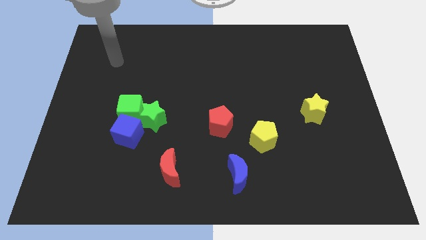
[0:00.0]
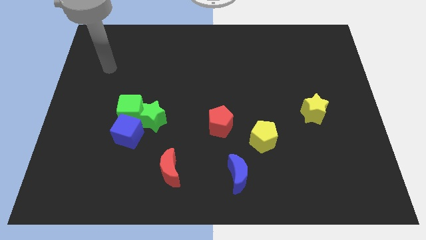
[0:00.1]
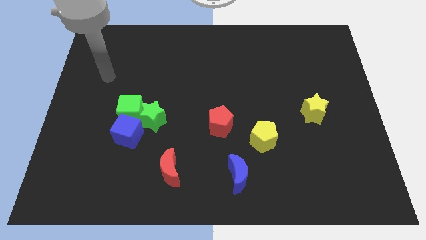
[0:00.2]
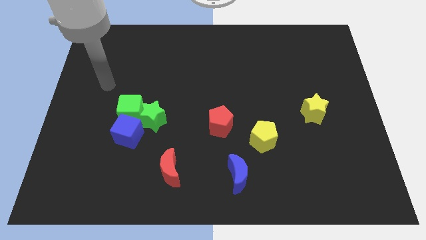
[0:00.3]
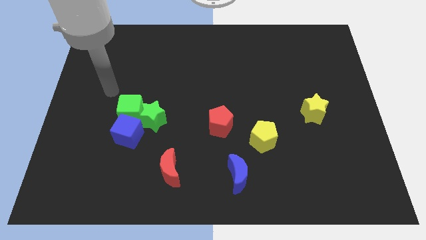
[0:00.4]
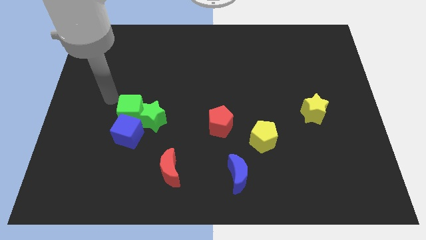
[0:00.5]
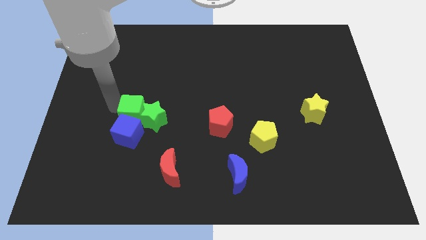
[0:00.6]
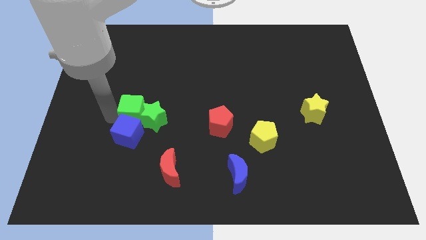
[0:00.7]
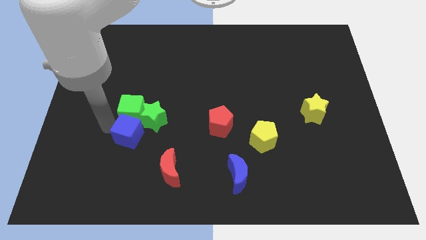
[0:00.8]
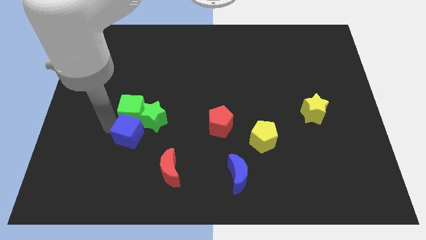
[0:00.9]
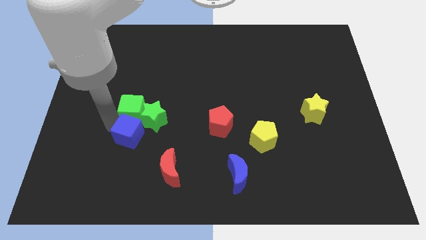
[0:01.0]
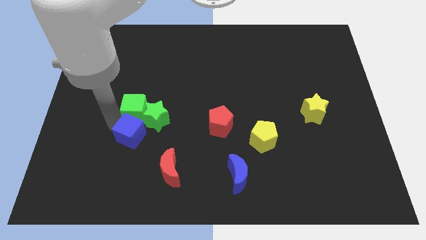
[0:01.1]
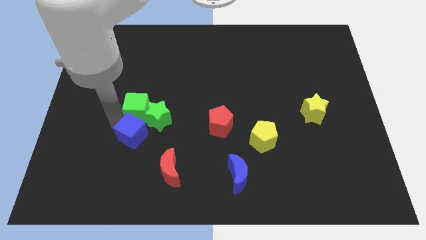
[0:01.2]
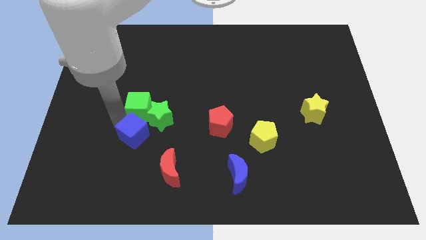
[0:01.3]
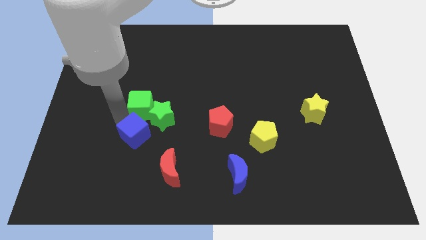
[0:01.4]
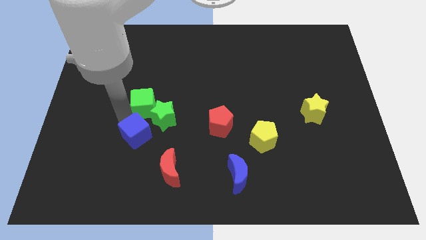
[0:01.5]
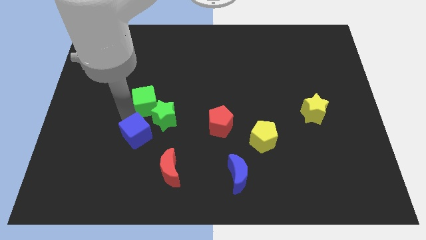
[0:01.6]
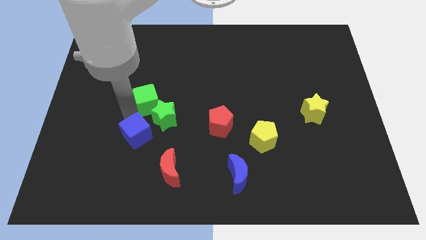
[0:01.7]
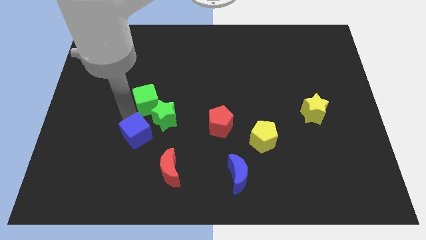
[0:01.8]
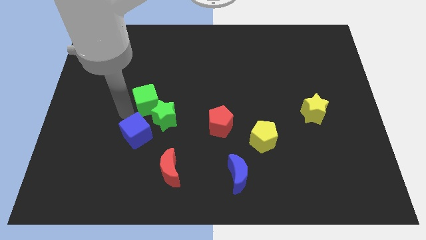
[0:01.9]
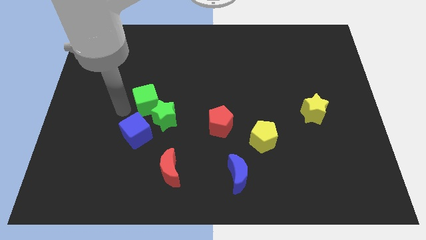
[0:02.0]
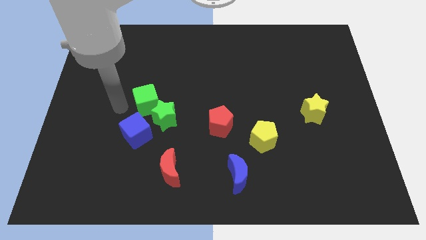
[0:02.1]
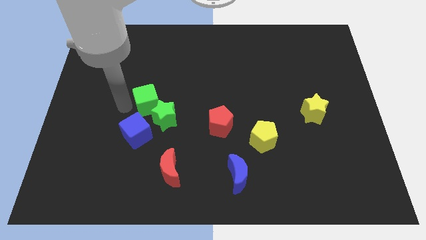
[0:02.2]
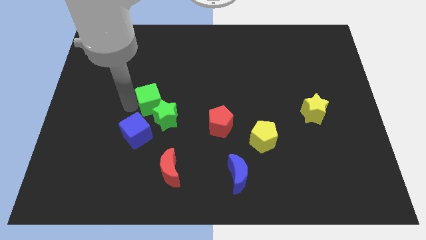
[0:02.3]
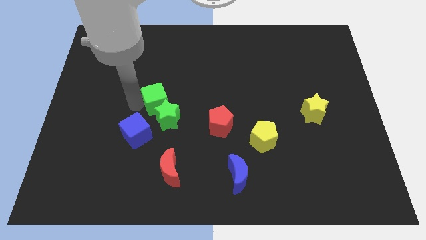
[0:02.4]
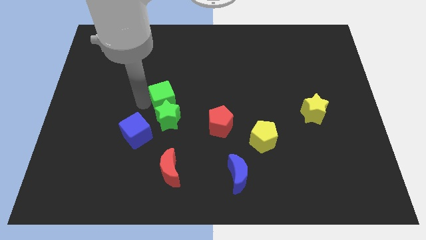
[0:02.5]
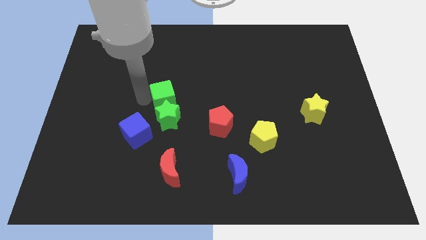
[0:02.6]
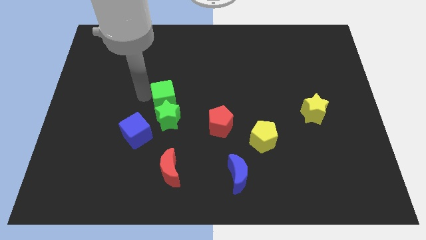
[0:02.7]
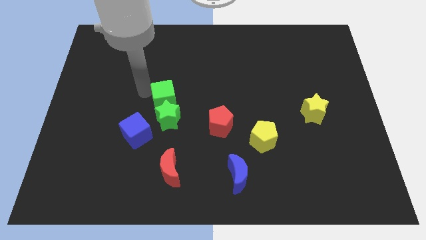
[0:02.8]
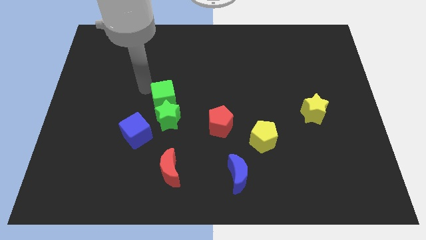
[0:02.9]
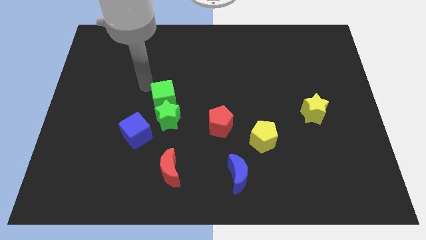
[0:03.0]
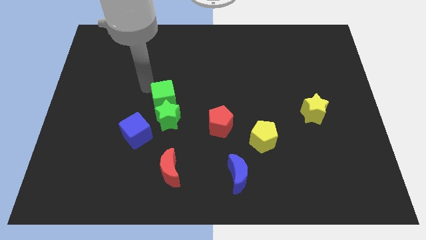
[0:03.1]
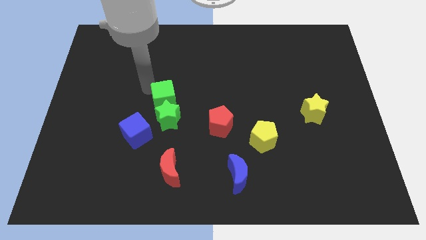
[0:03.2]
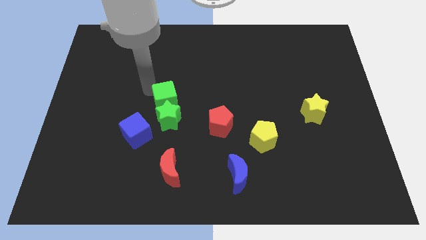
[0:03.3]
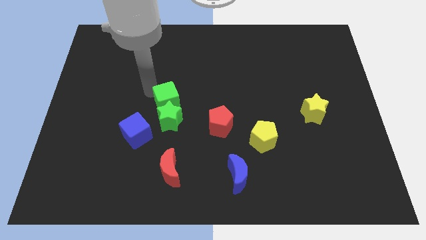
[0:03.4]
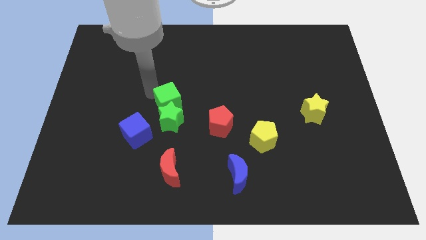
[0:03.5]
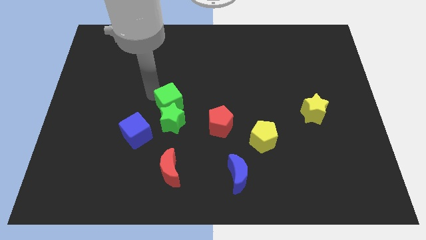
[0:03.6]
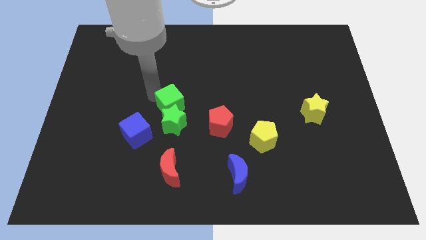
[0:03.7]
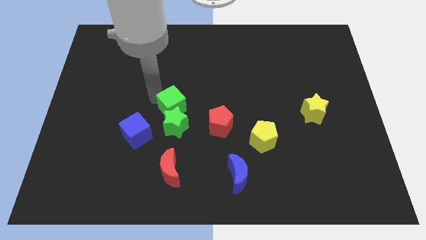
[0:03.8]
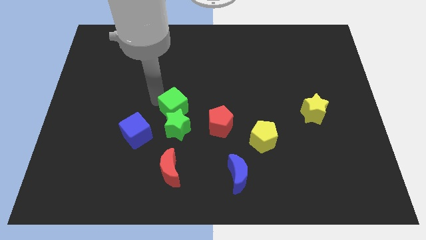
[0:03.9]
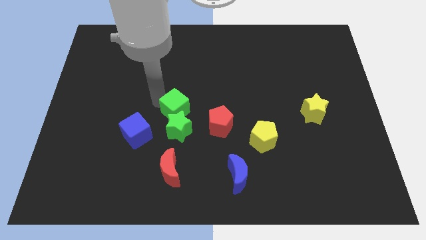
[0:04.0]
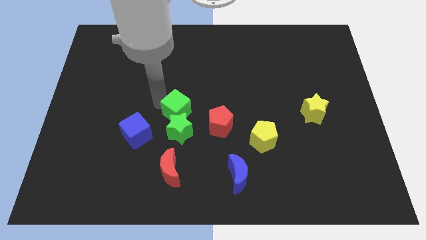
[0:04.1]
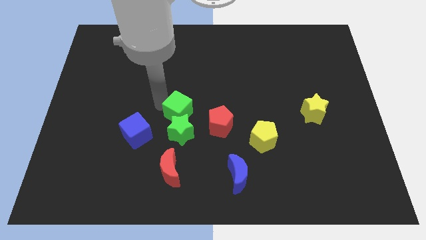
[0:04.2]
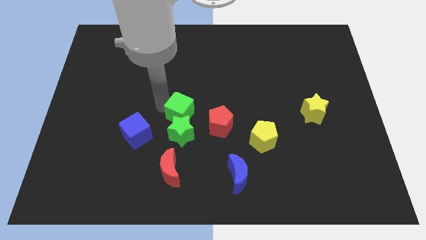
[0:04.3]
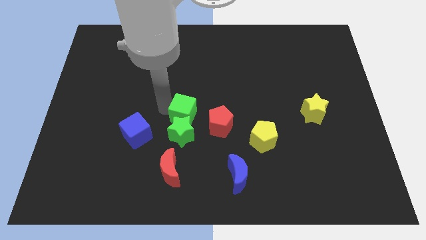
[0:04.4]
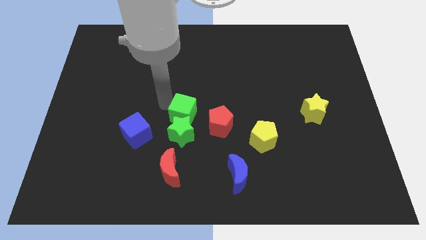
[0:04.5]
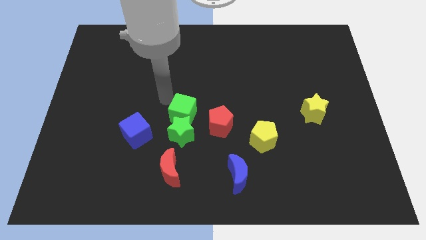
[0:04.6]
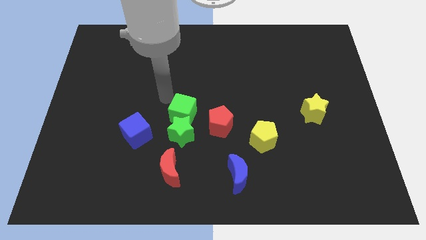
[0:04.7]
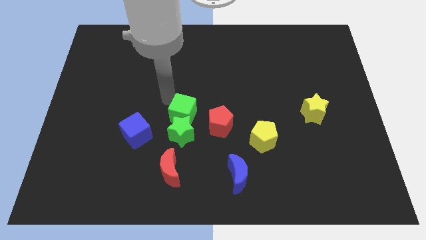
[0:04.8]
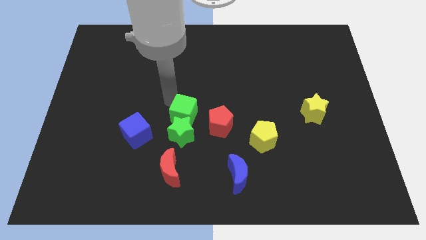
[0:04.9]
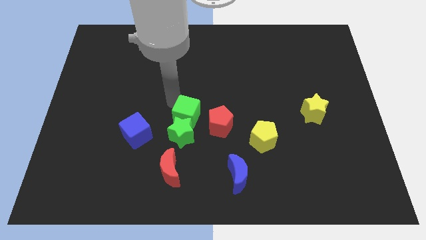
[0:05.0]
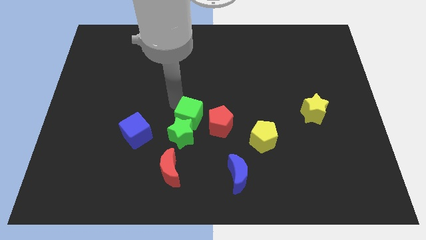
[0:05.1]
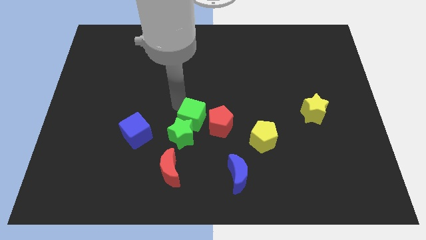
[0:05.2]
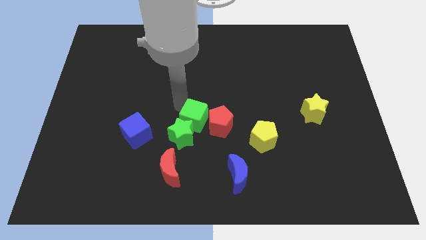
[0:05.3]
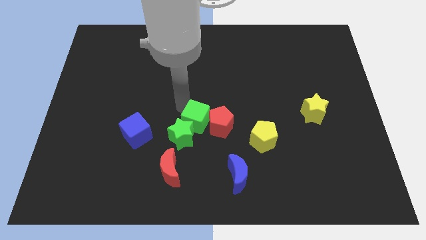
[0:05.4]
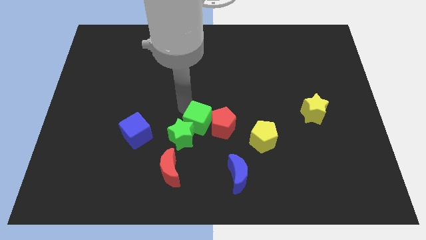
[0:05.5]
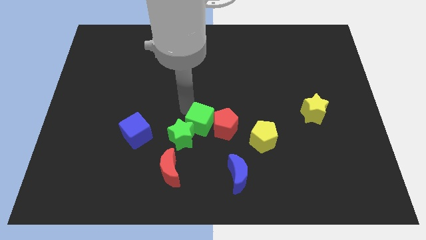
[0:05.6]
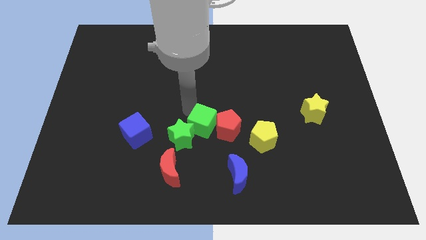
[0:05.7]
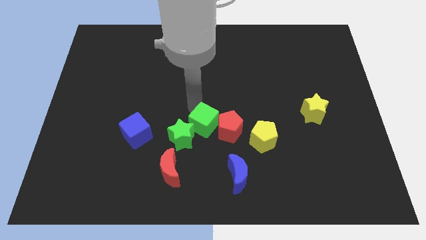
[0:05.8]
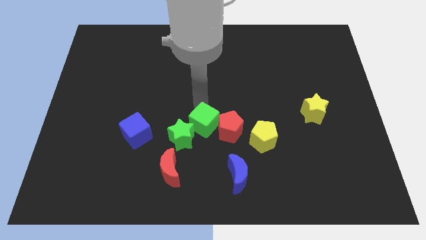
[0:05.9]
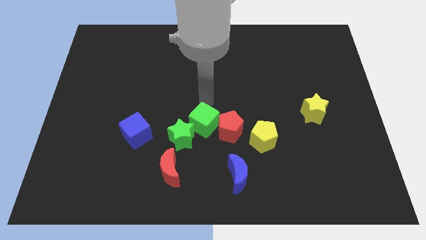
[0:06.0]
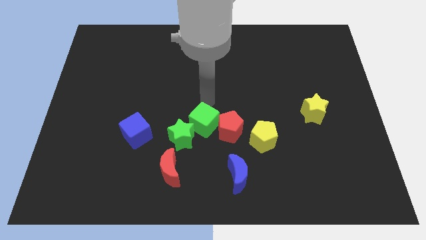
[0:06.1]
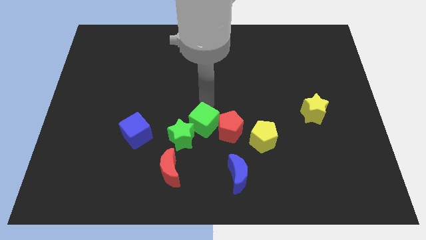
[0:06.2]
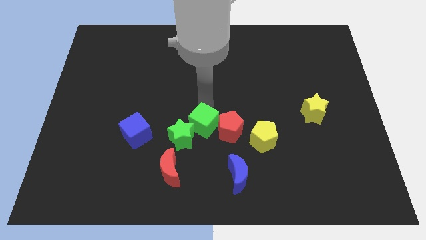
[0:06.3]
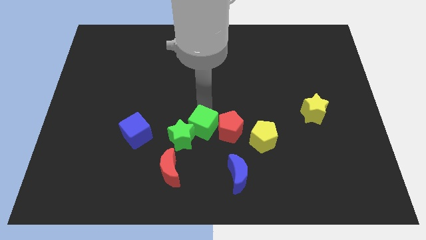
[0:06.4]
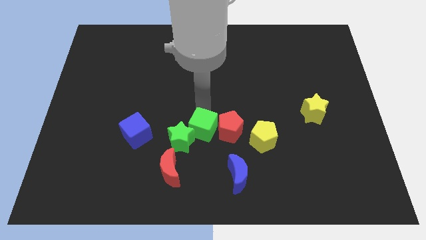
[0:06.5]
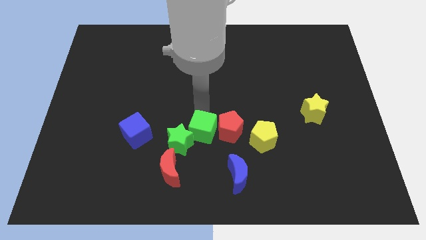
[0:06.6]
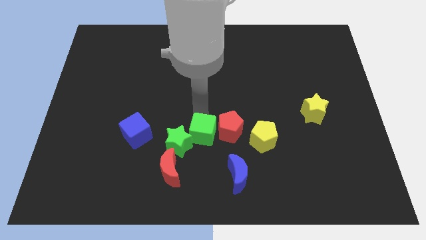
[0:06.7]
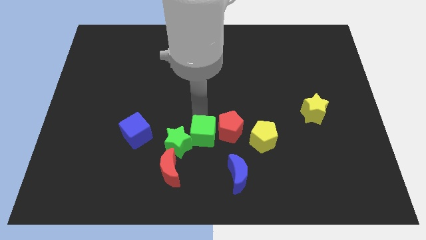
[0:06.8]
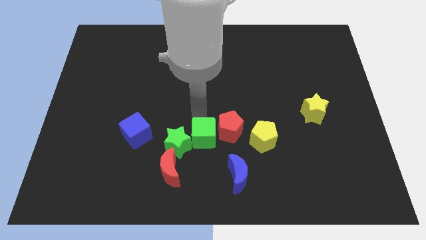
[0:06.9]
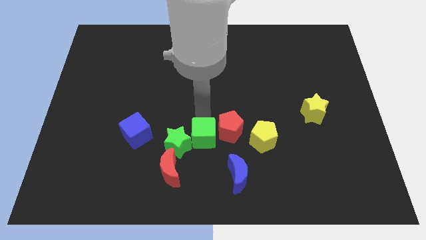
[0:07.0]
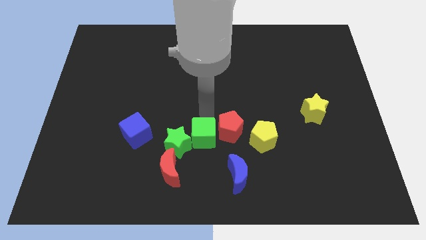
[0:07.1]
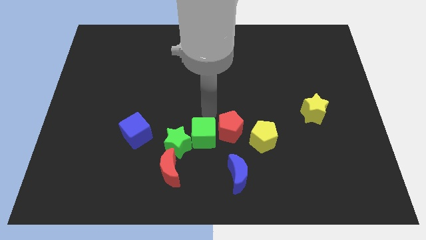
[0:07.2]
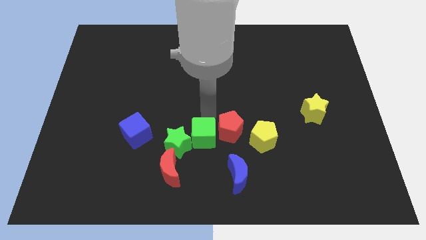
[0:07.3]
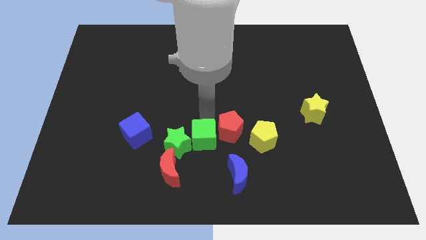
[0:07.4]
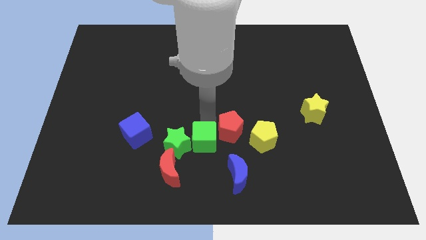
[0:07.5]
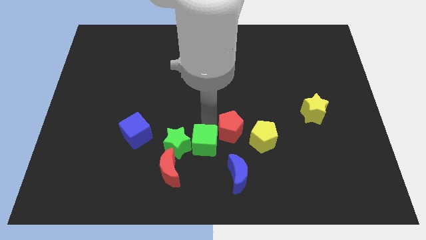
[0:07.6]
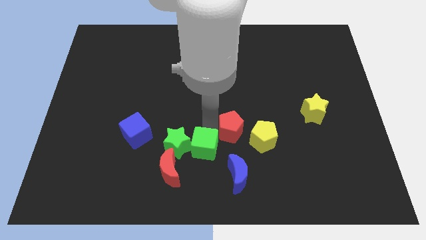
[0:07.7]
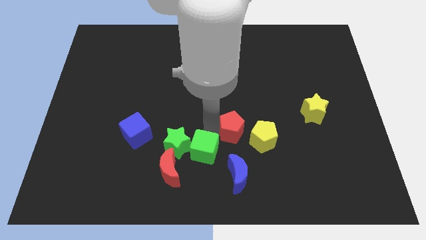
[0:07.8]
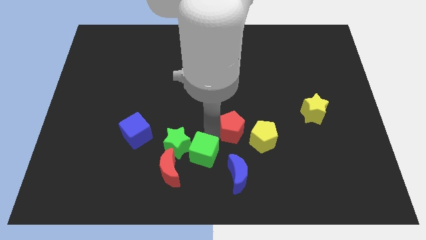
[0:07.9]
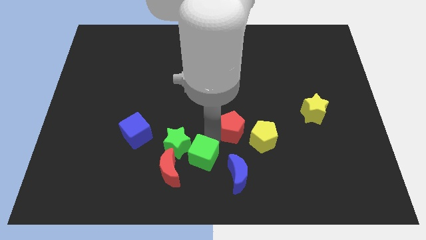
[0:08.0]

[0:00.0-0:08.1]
push the green cube just left of the blue moon

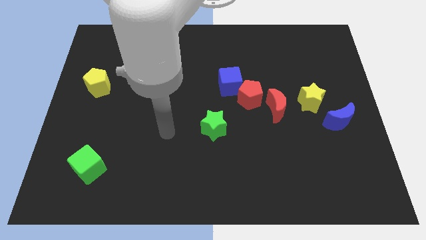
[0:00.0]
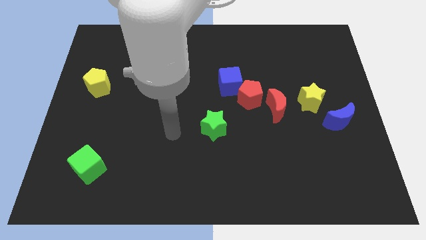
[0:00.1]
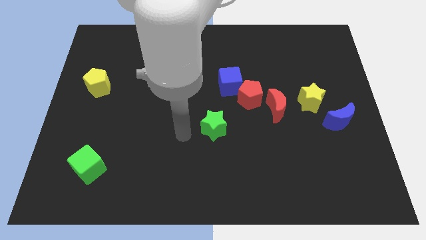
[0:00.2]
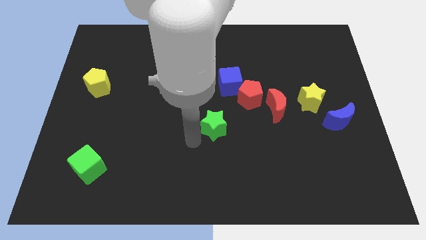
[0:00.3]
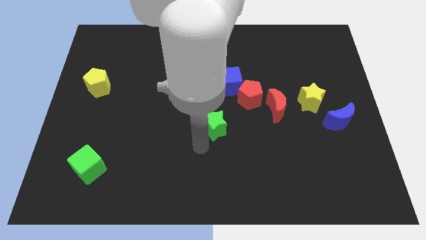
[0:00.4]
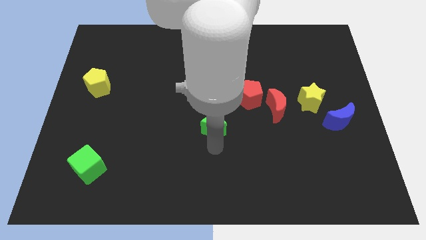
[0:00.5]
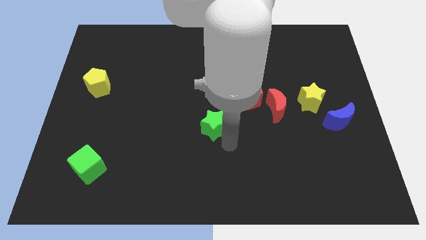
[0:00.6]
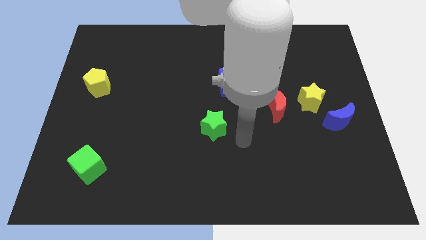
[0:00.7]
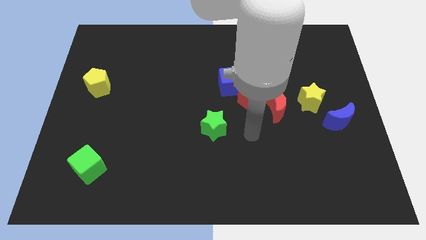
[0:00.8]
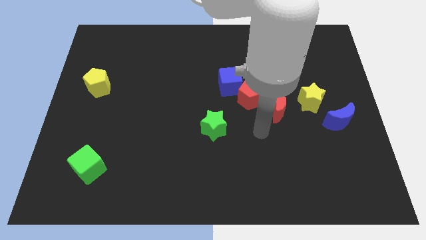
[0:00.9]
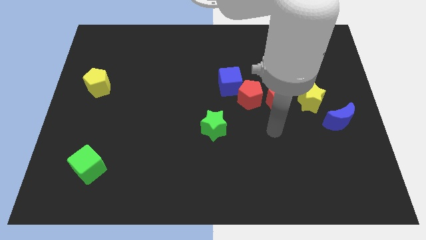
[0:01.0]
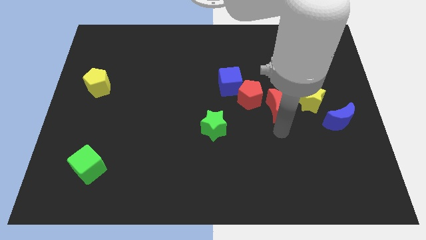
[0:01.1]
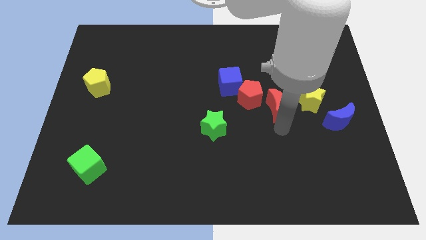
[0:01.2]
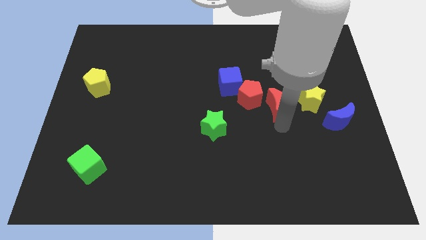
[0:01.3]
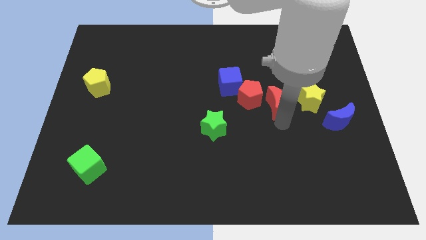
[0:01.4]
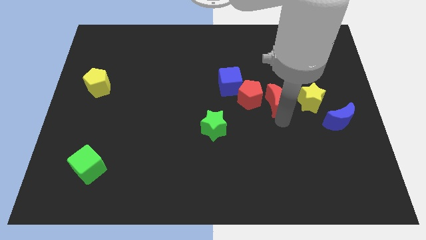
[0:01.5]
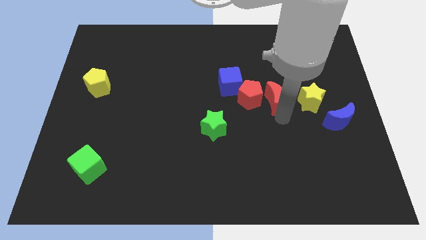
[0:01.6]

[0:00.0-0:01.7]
push the red moon to the right of the blue cube
